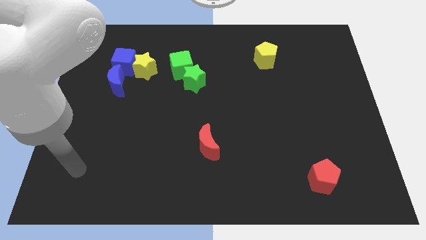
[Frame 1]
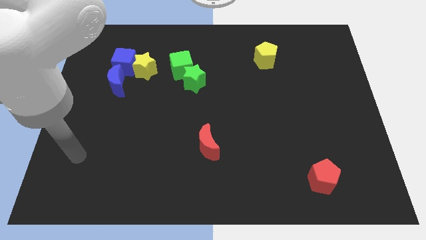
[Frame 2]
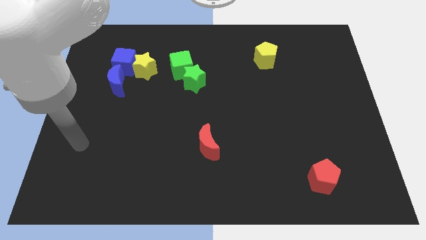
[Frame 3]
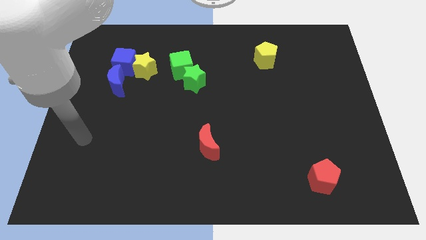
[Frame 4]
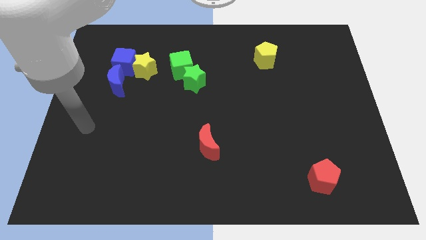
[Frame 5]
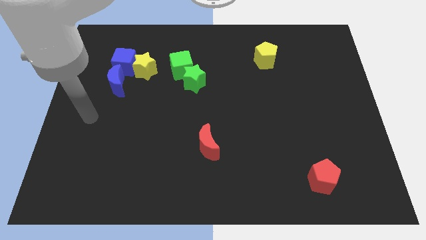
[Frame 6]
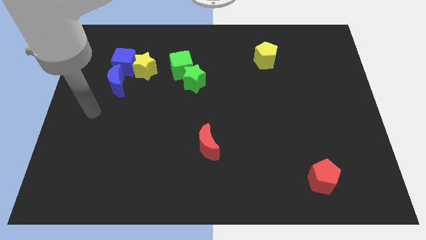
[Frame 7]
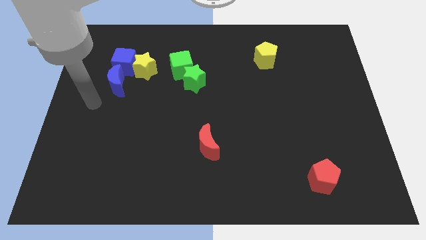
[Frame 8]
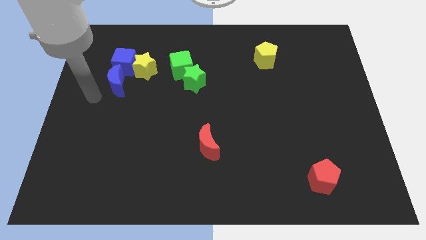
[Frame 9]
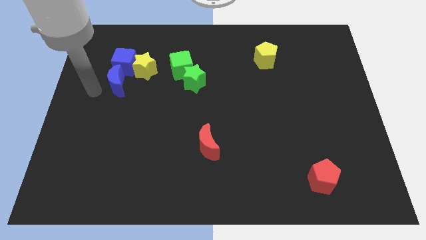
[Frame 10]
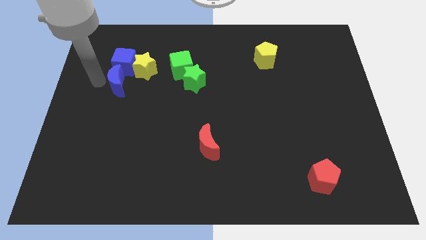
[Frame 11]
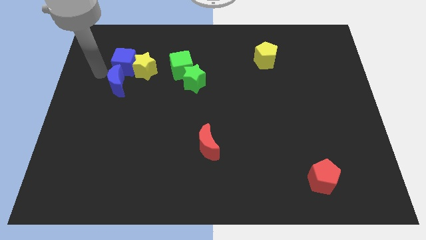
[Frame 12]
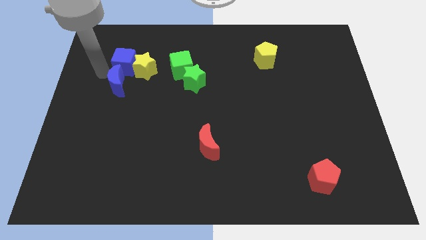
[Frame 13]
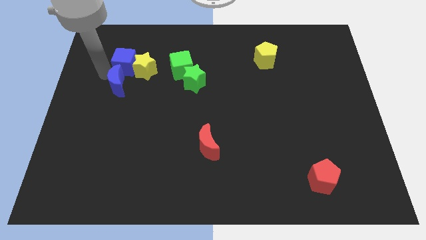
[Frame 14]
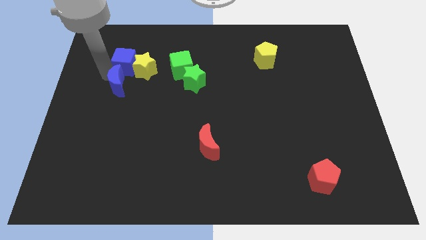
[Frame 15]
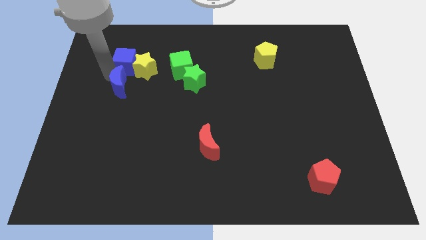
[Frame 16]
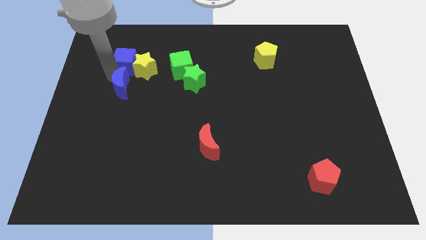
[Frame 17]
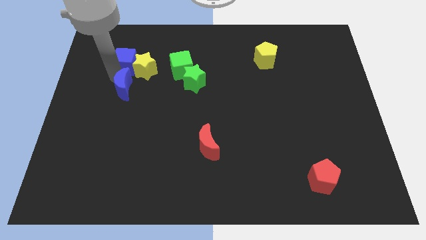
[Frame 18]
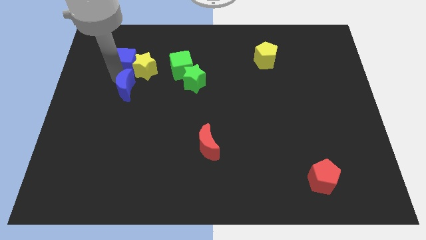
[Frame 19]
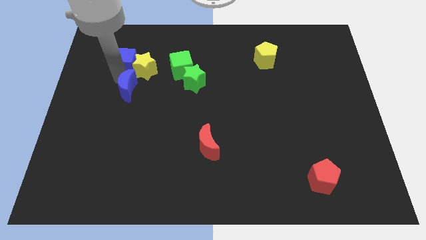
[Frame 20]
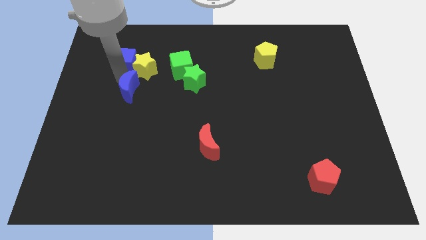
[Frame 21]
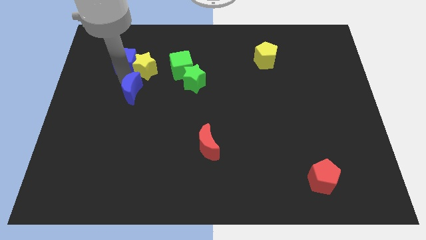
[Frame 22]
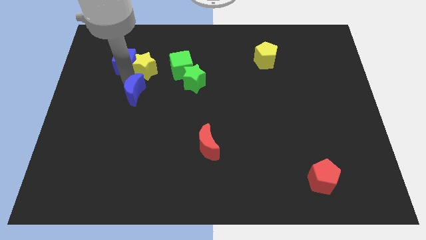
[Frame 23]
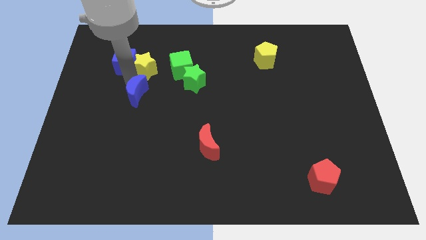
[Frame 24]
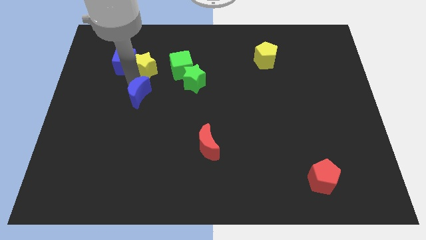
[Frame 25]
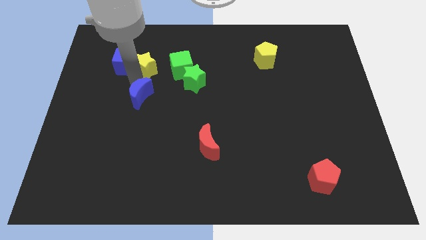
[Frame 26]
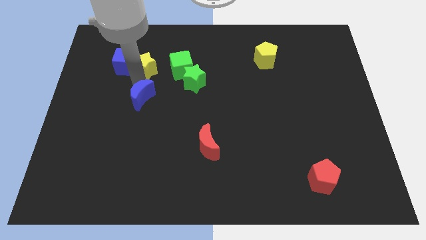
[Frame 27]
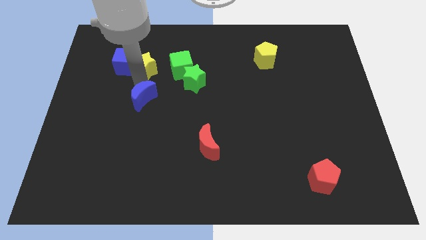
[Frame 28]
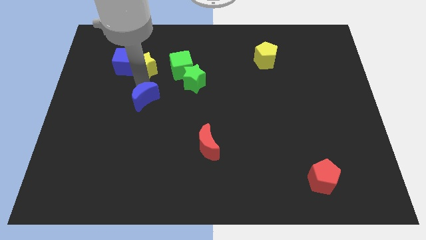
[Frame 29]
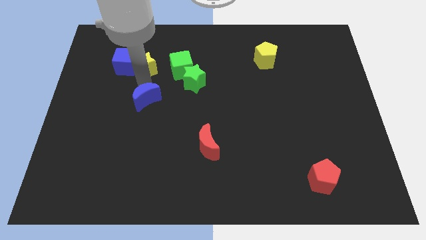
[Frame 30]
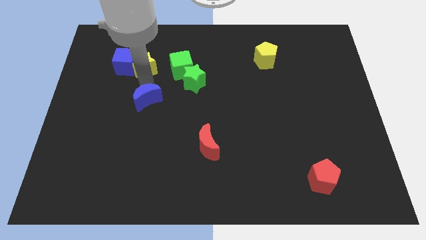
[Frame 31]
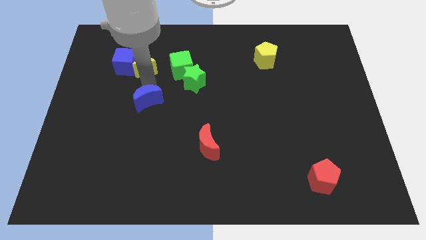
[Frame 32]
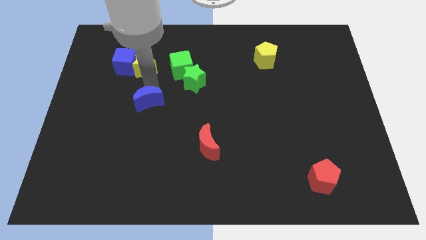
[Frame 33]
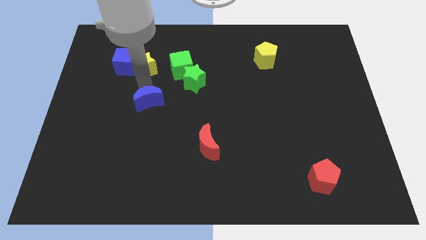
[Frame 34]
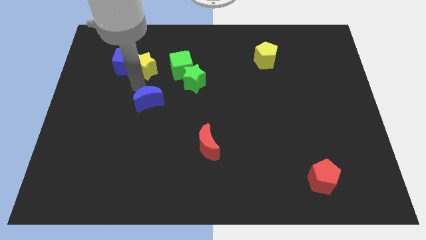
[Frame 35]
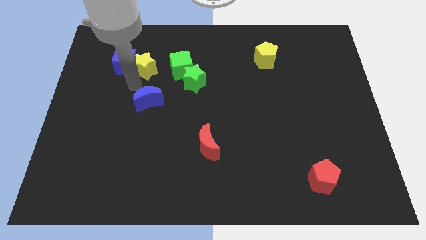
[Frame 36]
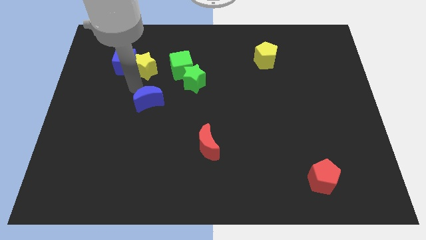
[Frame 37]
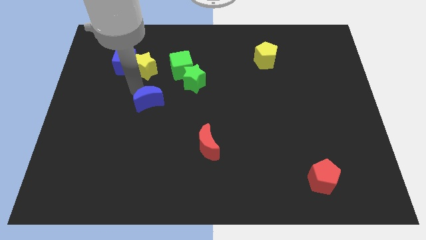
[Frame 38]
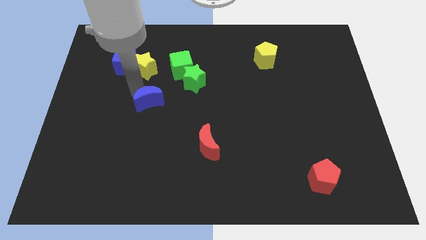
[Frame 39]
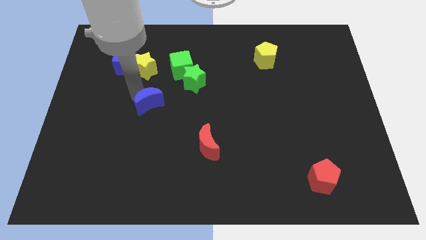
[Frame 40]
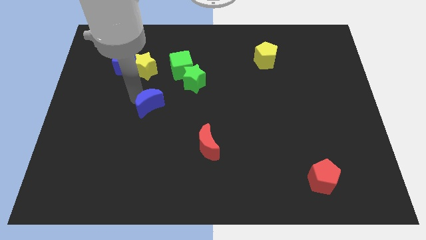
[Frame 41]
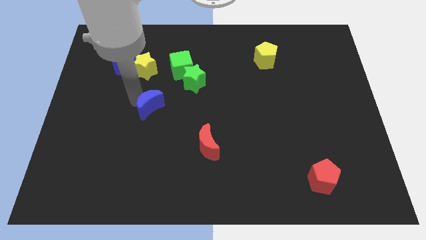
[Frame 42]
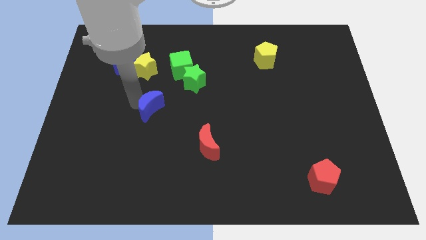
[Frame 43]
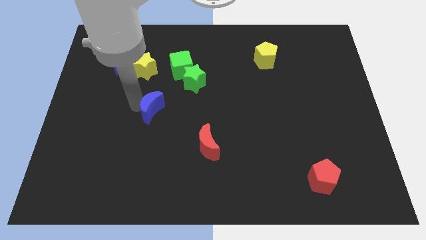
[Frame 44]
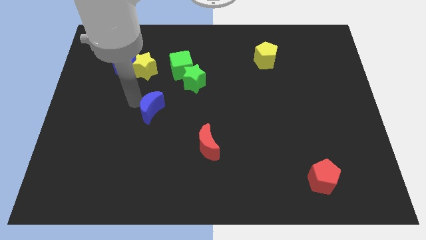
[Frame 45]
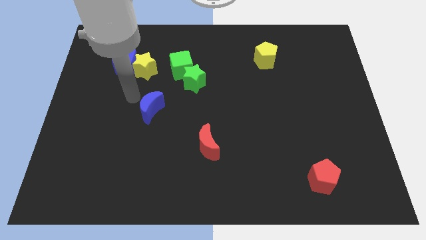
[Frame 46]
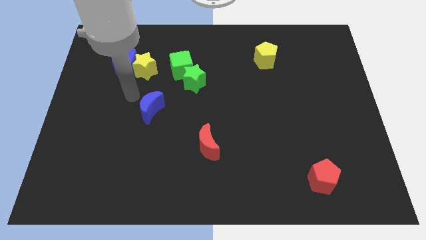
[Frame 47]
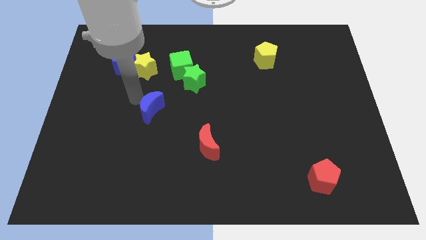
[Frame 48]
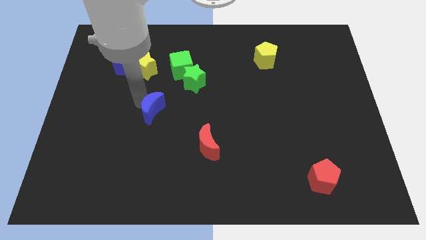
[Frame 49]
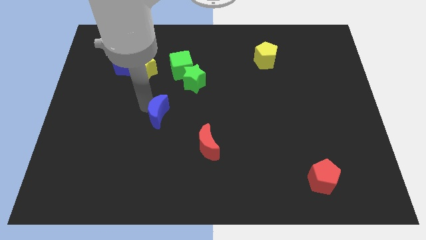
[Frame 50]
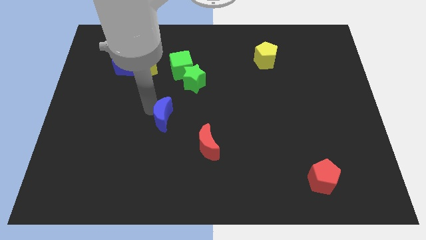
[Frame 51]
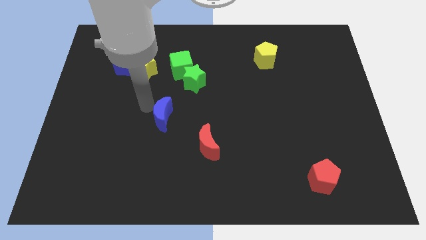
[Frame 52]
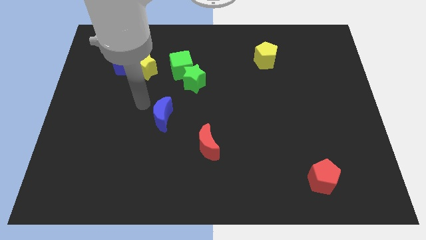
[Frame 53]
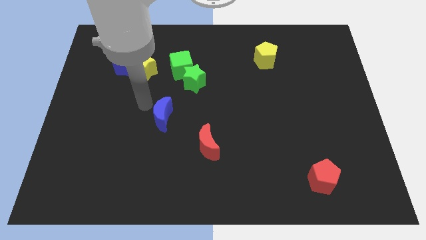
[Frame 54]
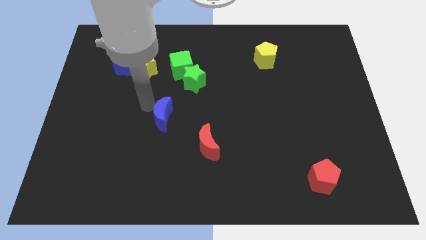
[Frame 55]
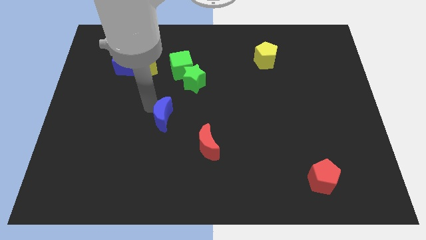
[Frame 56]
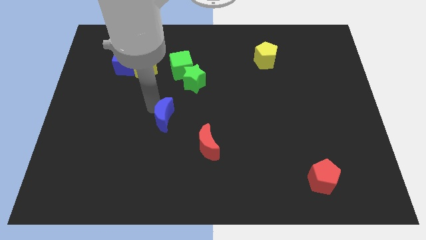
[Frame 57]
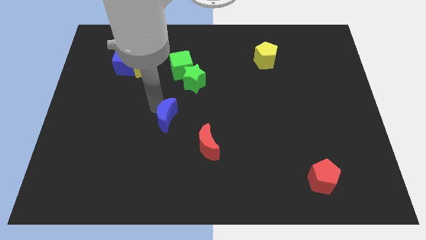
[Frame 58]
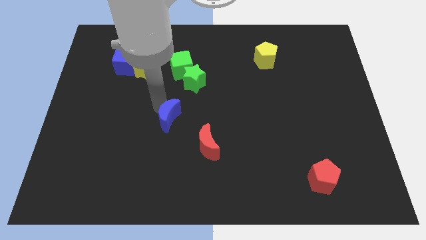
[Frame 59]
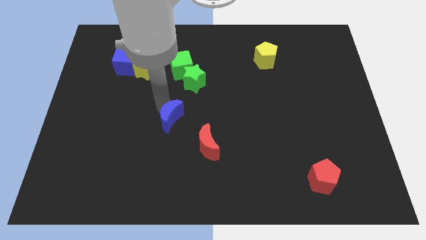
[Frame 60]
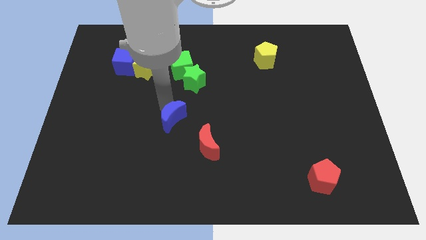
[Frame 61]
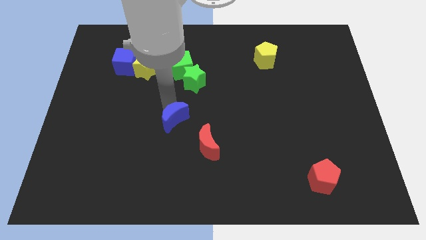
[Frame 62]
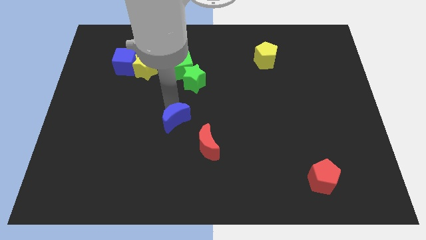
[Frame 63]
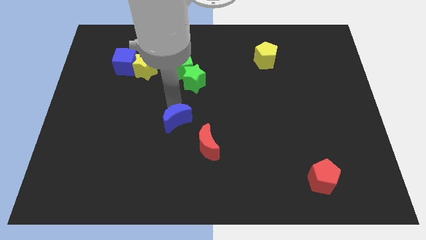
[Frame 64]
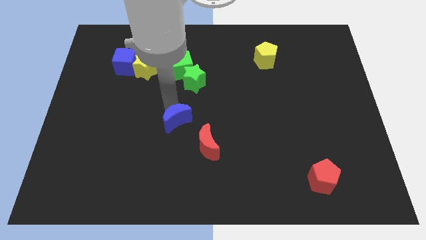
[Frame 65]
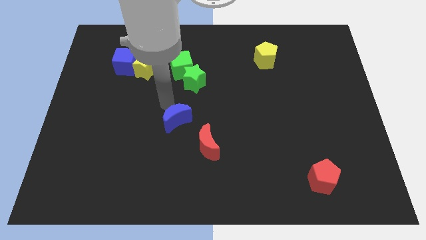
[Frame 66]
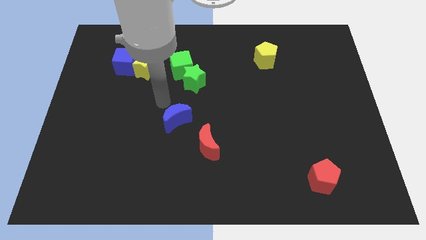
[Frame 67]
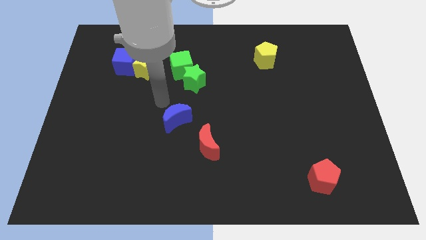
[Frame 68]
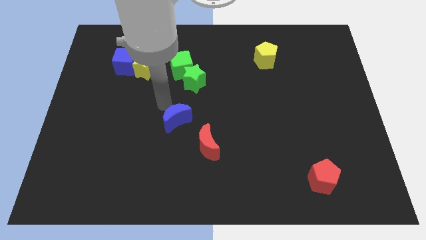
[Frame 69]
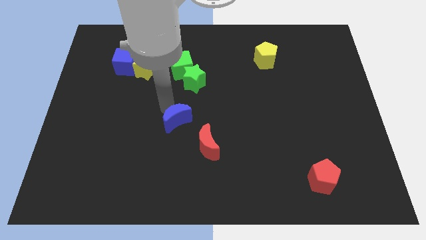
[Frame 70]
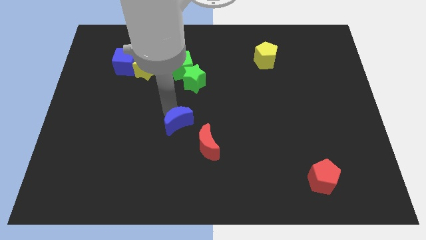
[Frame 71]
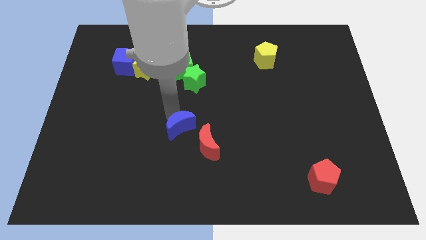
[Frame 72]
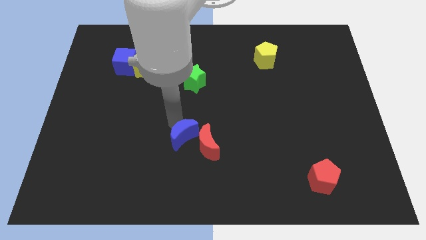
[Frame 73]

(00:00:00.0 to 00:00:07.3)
slide the blue moon towards the red moon

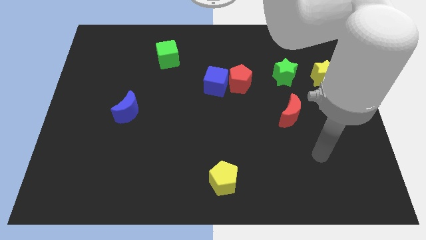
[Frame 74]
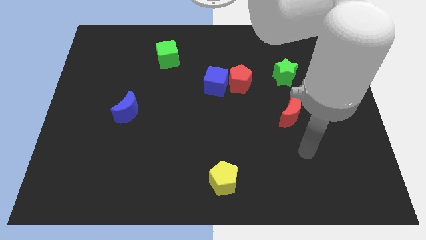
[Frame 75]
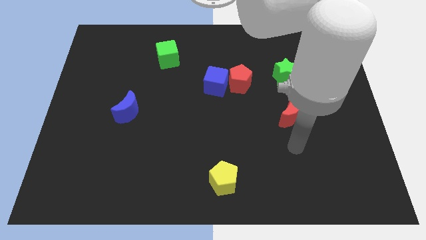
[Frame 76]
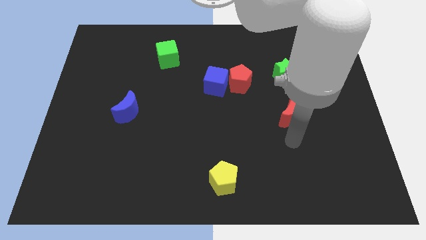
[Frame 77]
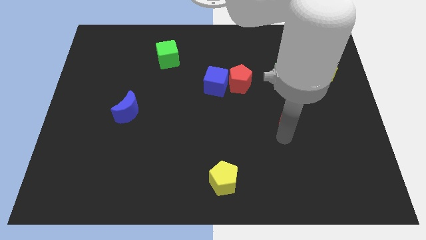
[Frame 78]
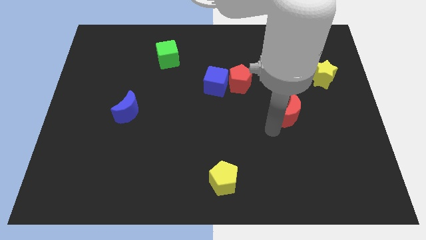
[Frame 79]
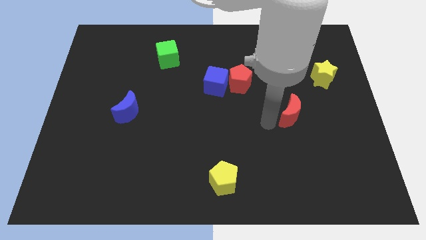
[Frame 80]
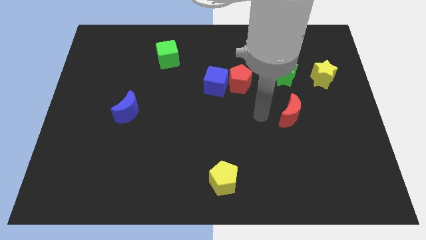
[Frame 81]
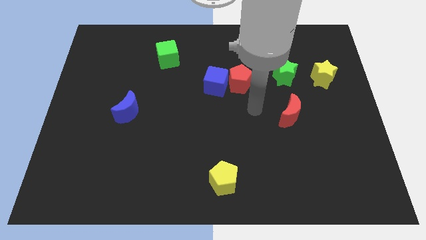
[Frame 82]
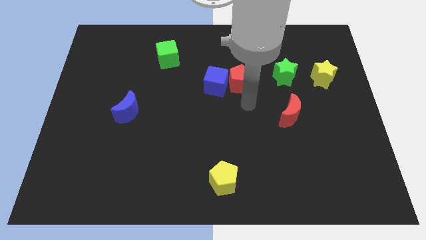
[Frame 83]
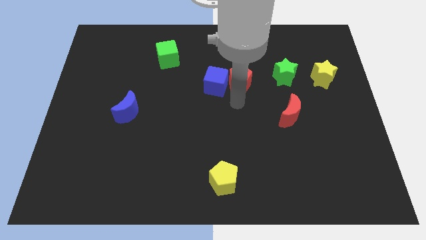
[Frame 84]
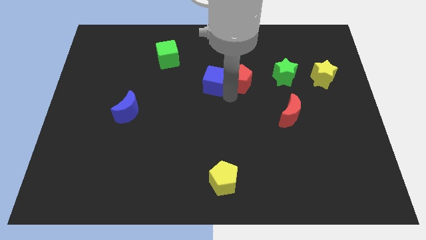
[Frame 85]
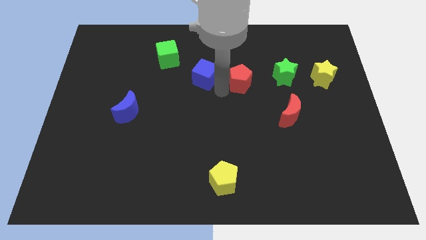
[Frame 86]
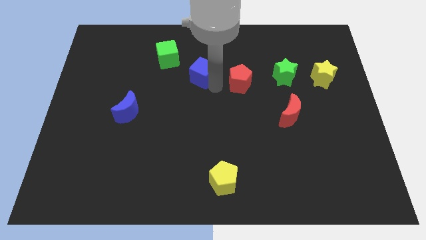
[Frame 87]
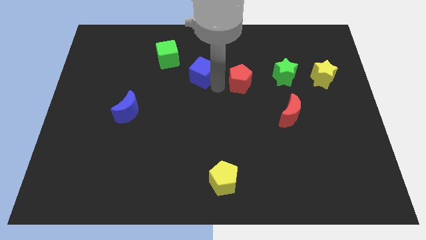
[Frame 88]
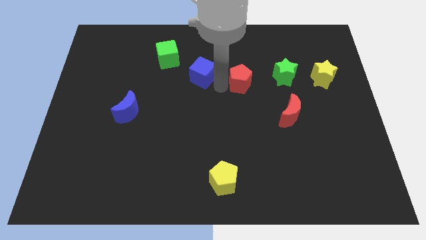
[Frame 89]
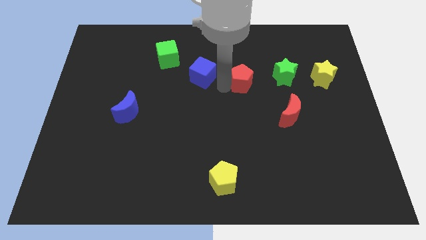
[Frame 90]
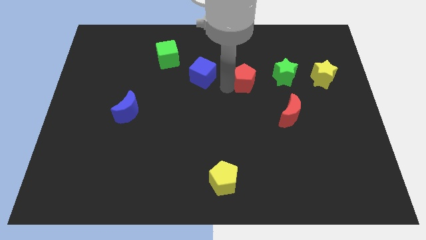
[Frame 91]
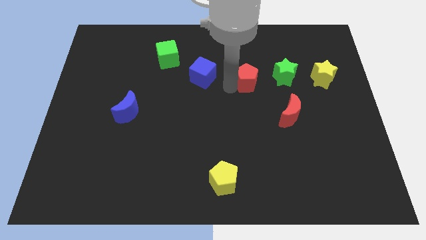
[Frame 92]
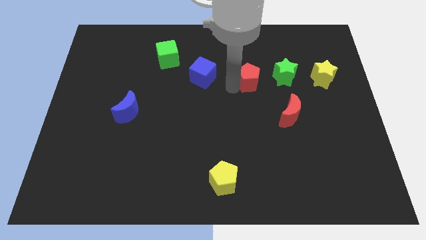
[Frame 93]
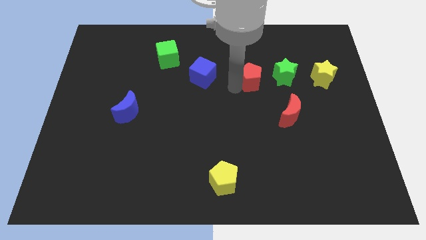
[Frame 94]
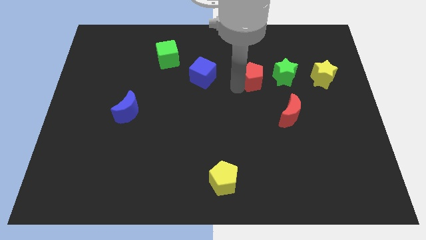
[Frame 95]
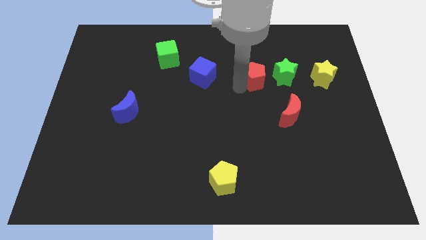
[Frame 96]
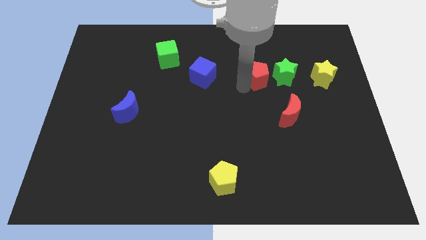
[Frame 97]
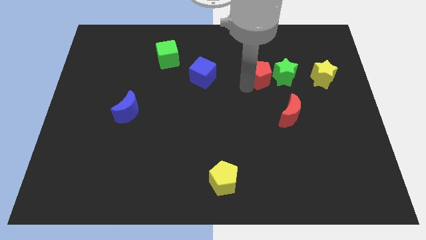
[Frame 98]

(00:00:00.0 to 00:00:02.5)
put the red pentagon next to the green star
